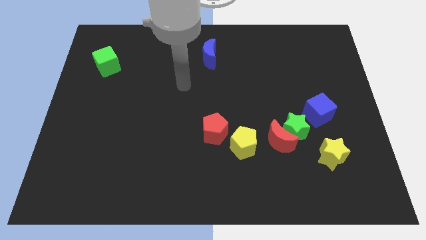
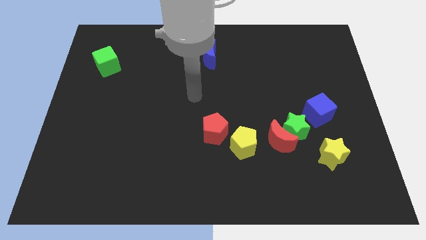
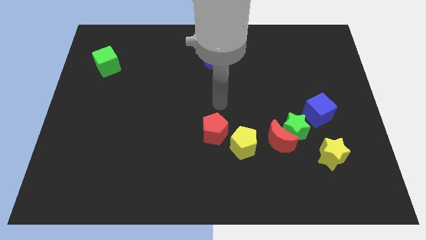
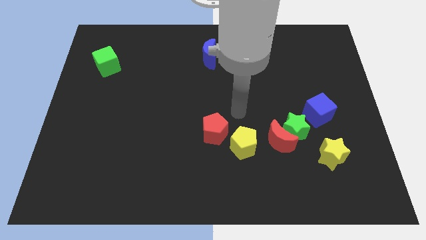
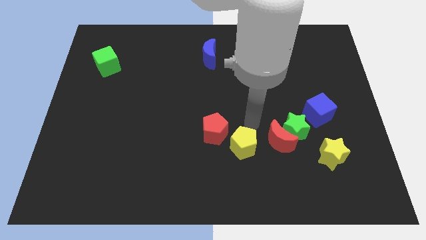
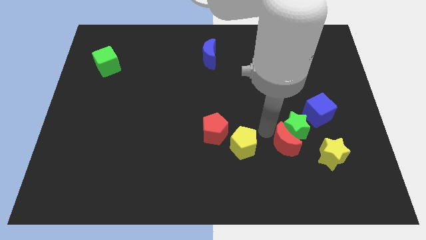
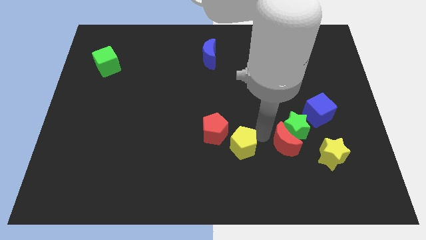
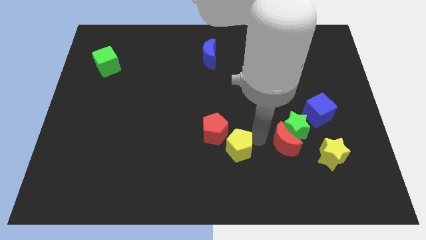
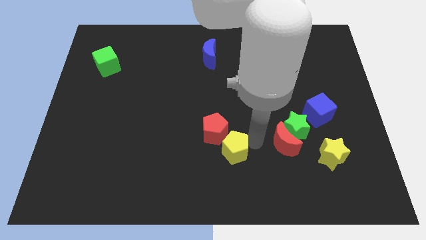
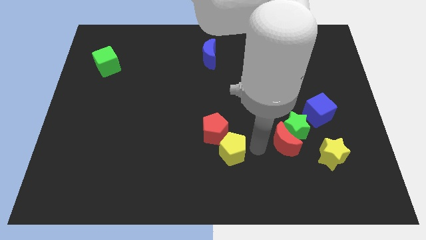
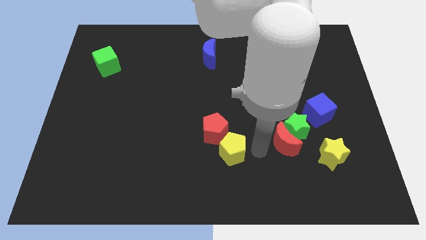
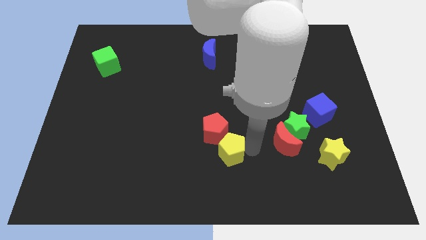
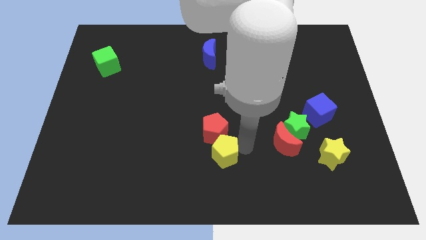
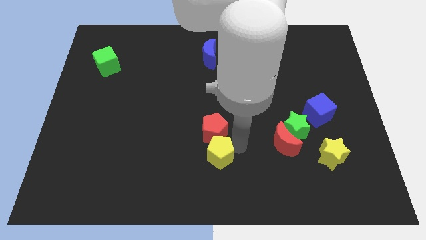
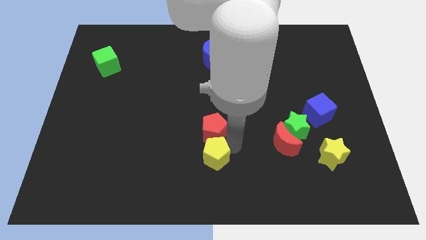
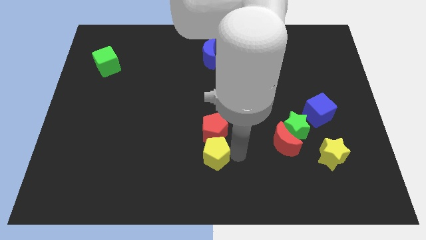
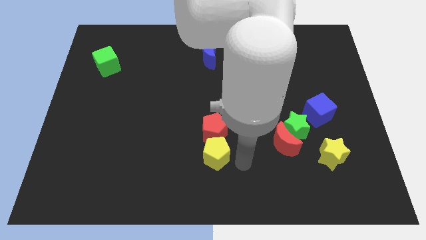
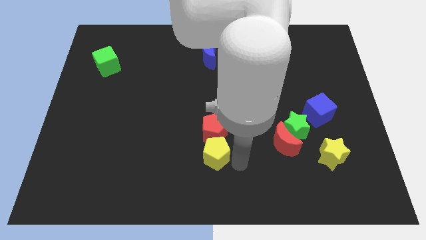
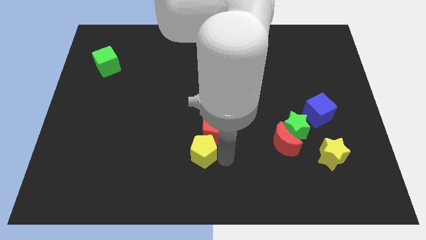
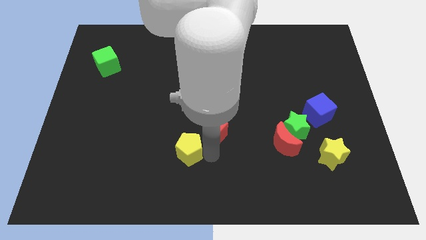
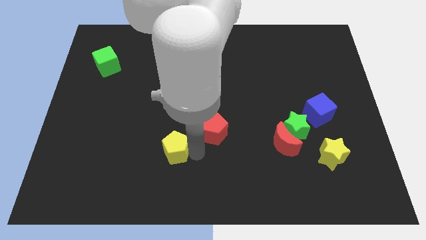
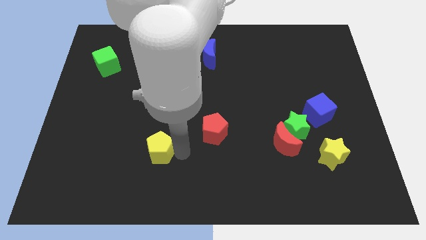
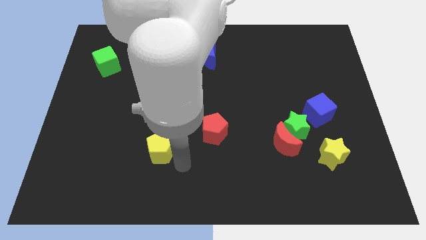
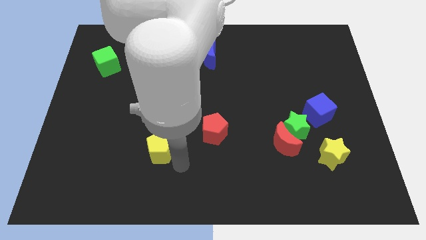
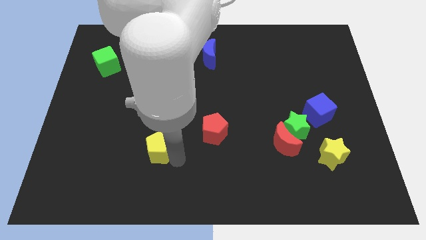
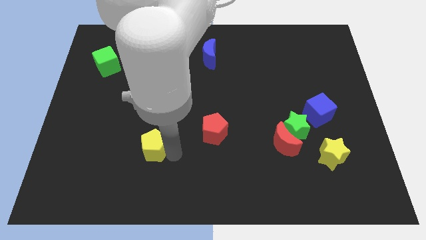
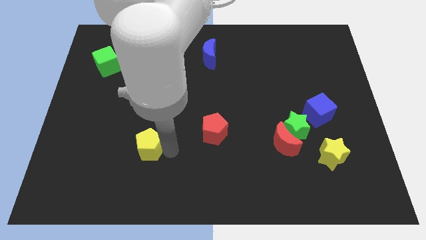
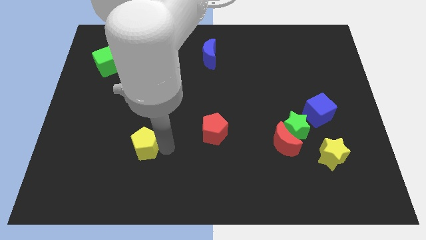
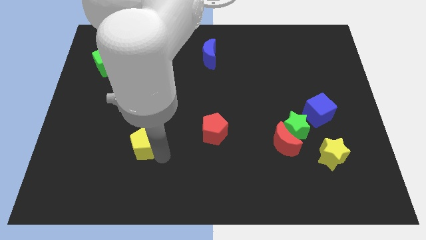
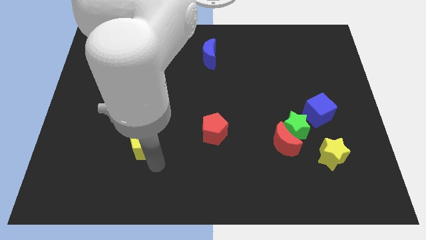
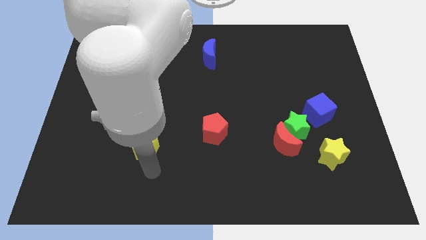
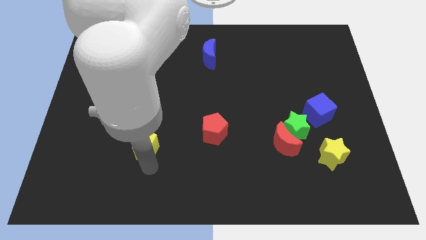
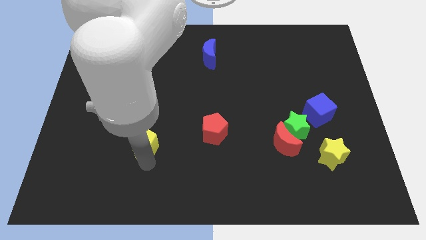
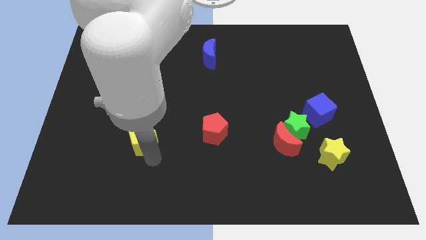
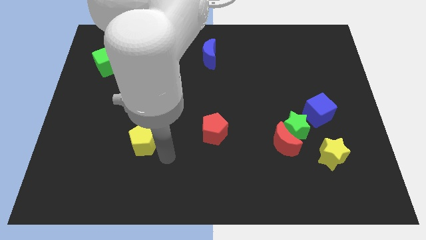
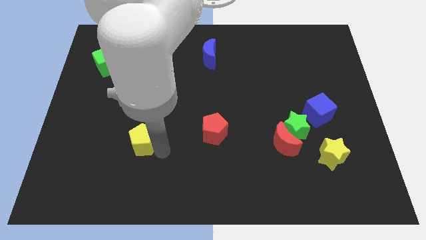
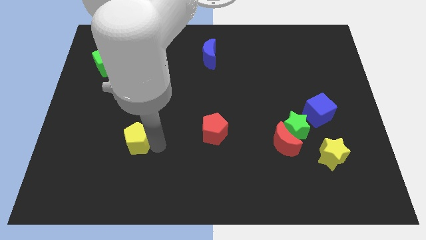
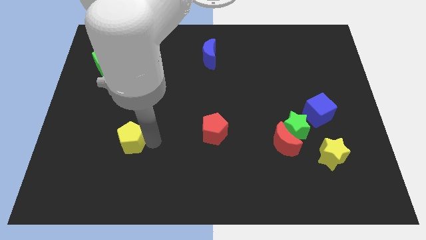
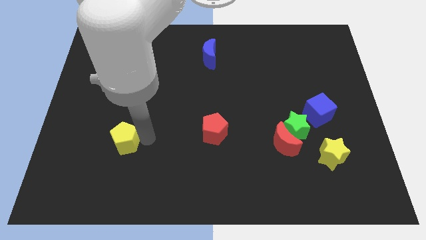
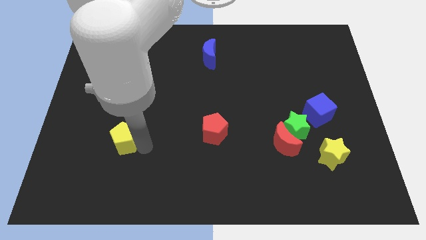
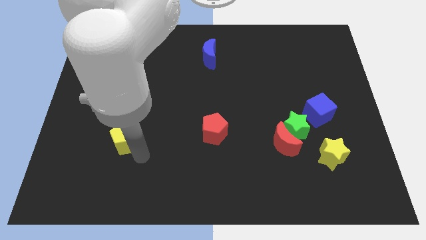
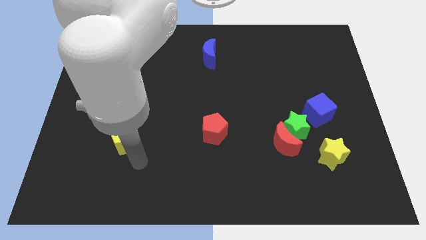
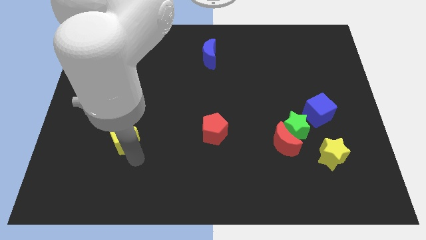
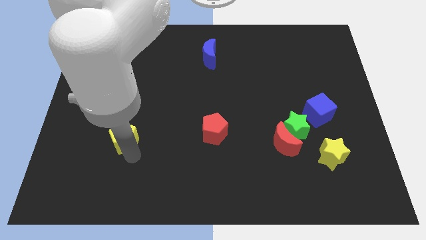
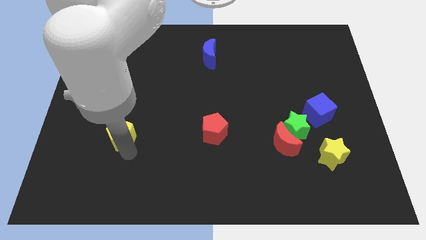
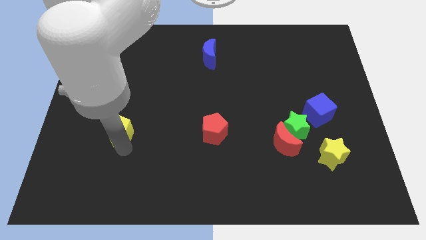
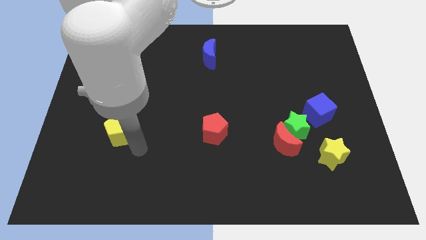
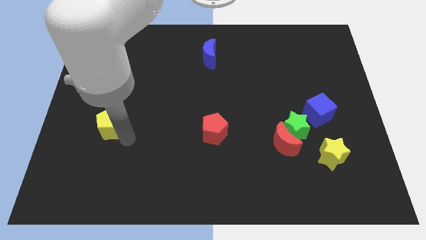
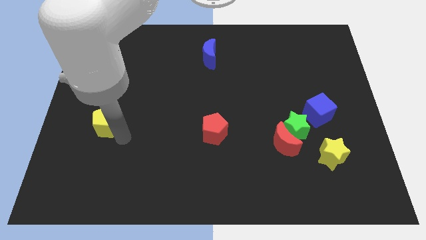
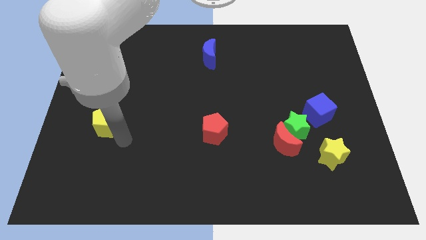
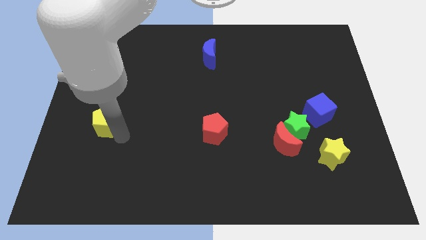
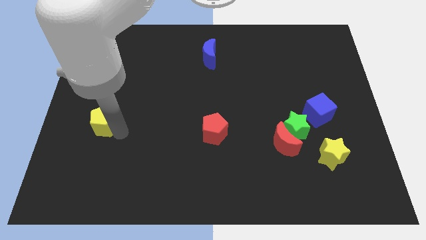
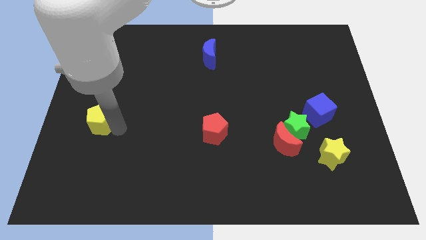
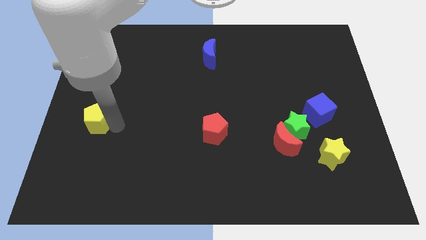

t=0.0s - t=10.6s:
push the yellow pentagon to the left side of the board
